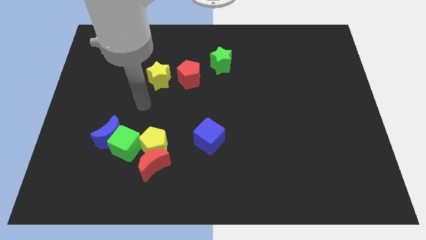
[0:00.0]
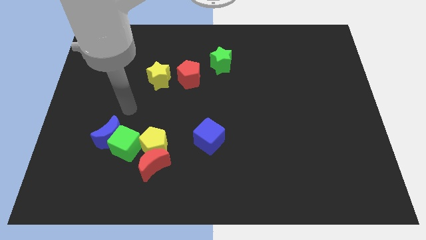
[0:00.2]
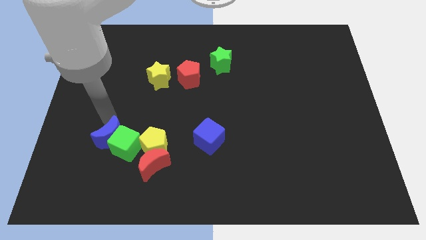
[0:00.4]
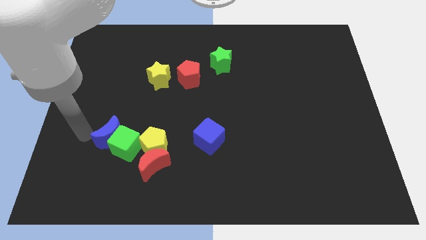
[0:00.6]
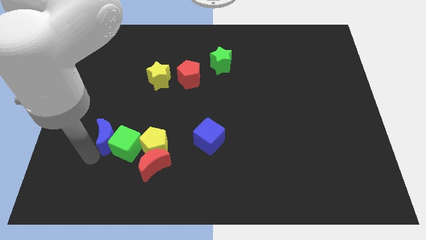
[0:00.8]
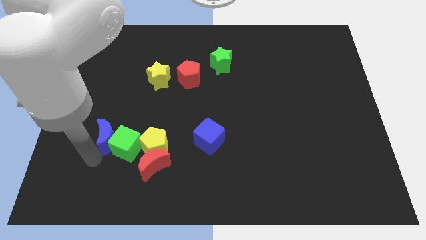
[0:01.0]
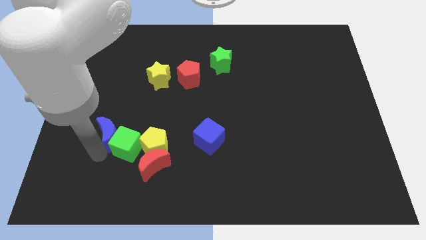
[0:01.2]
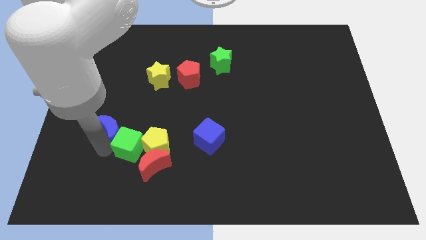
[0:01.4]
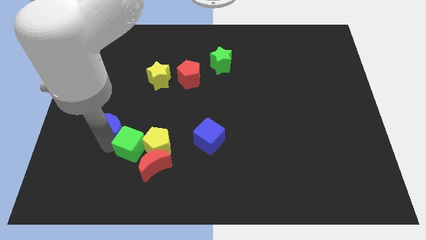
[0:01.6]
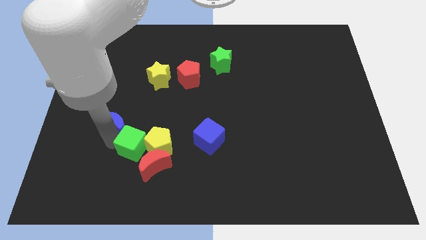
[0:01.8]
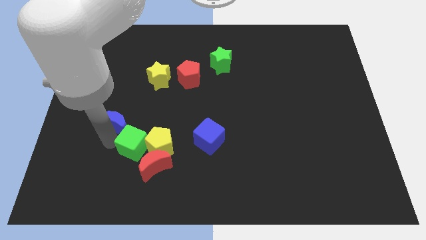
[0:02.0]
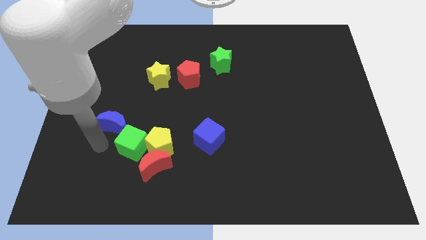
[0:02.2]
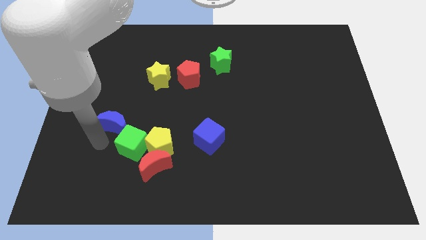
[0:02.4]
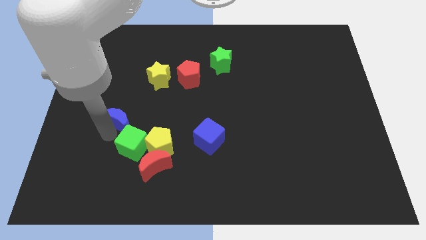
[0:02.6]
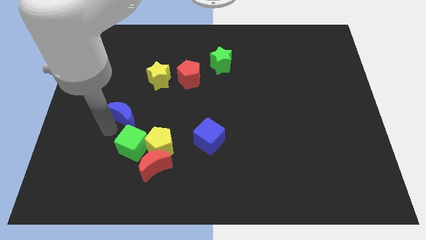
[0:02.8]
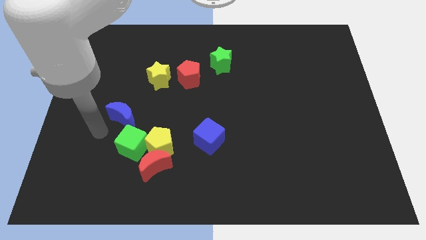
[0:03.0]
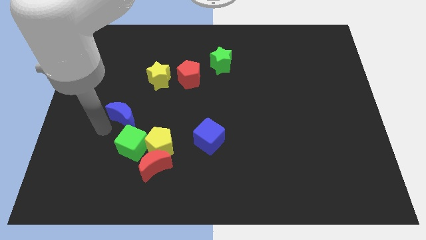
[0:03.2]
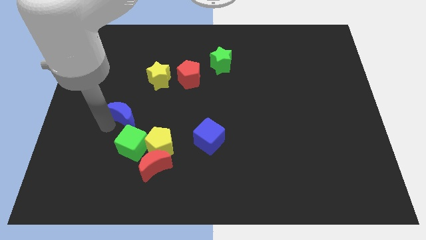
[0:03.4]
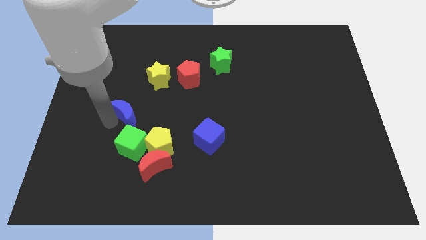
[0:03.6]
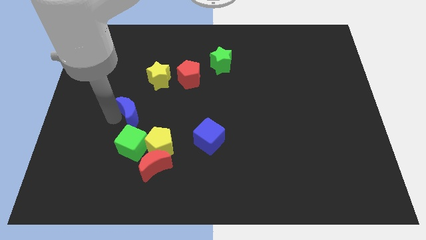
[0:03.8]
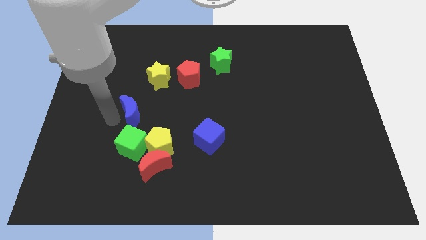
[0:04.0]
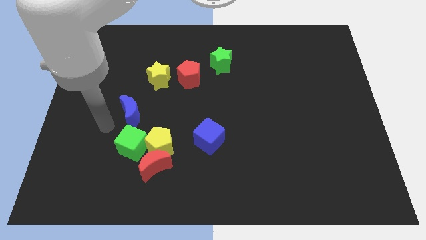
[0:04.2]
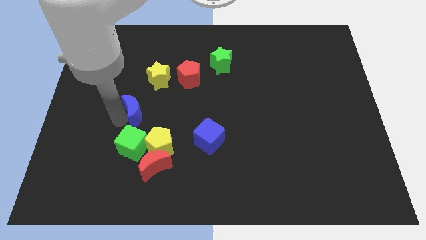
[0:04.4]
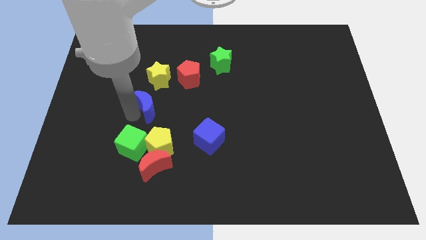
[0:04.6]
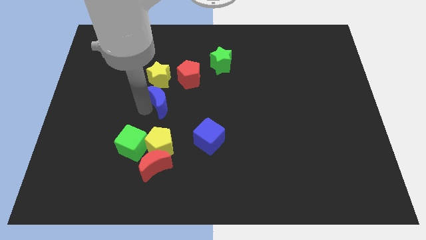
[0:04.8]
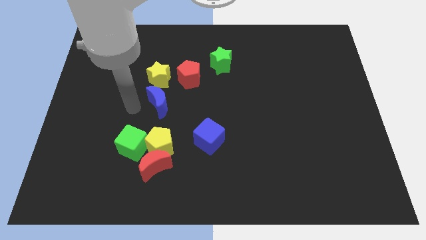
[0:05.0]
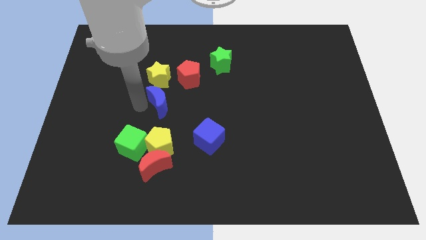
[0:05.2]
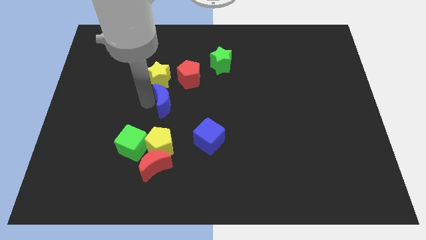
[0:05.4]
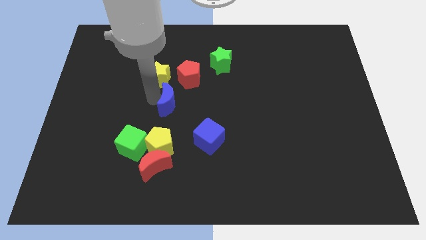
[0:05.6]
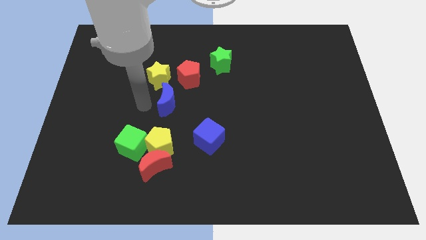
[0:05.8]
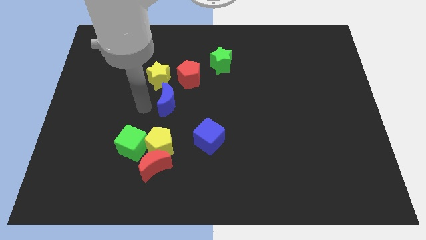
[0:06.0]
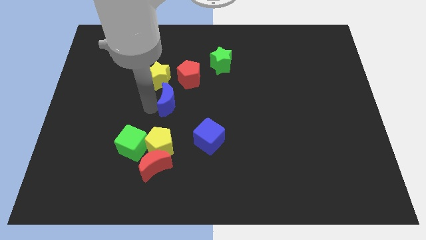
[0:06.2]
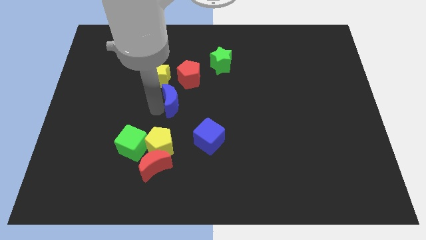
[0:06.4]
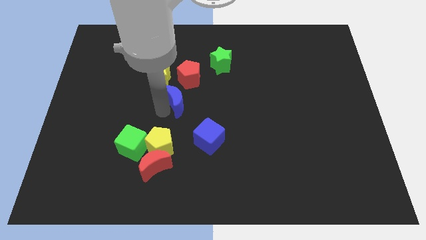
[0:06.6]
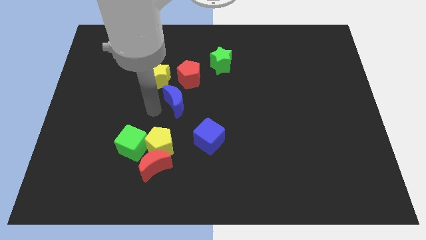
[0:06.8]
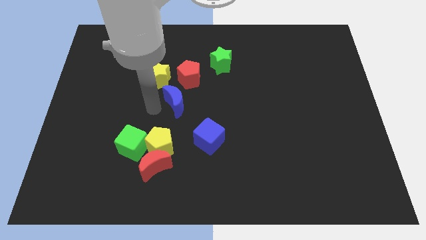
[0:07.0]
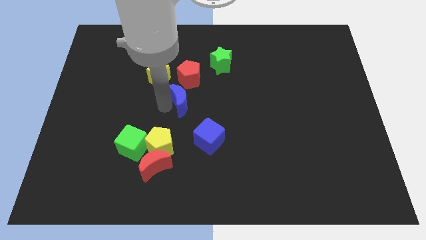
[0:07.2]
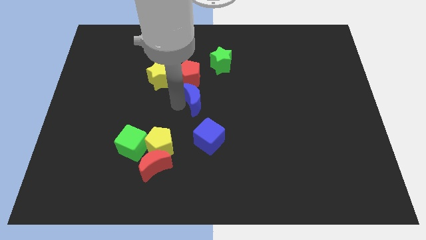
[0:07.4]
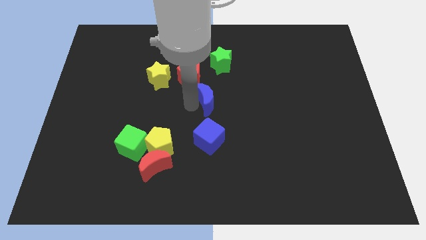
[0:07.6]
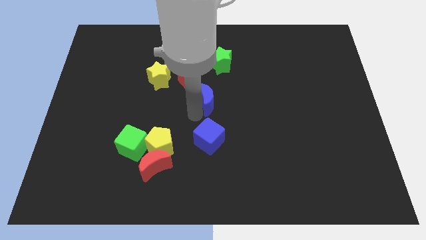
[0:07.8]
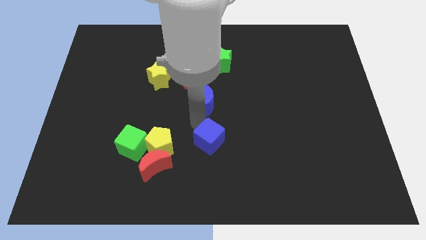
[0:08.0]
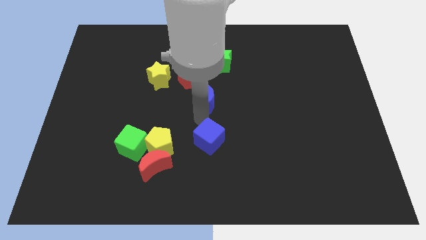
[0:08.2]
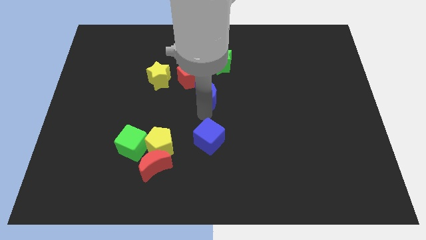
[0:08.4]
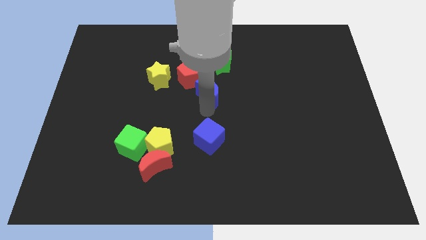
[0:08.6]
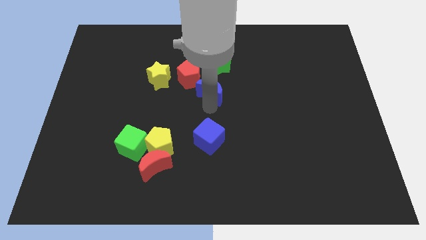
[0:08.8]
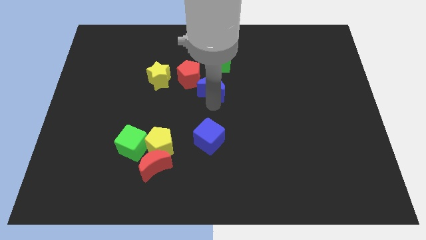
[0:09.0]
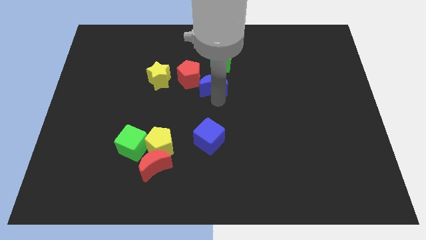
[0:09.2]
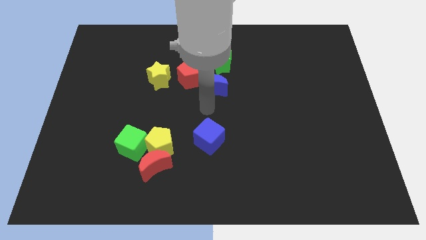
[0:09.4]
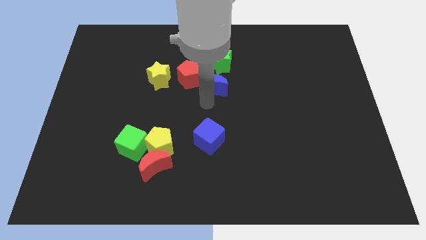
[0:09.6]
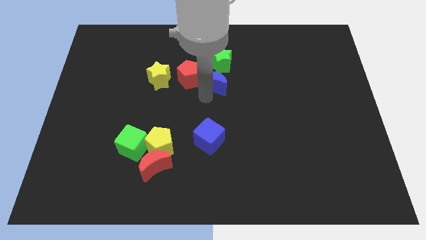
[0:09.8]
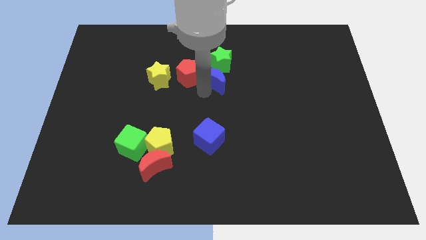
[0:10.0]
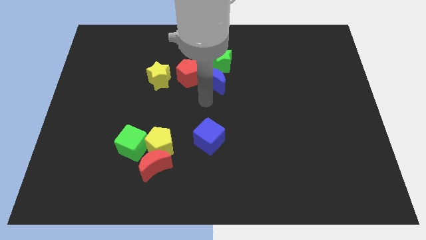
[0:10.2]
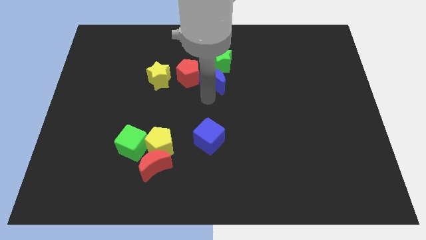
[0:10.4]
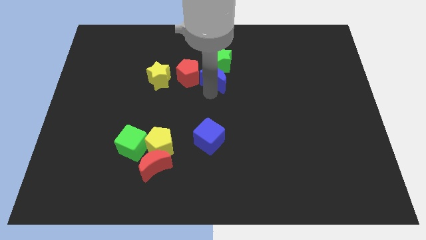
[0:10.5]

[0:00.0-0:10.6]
slide the blue moon close to the green star

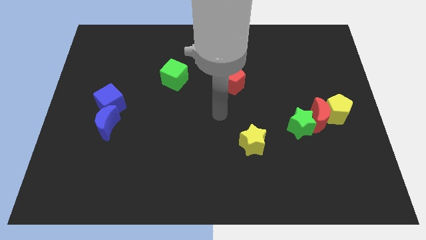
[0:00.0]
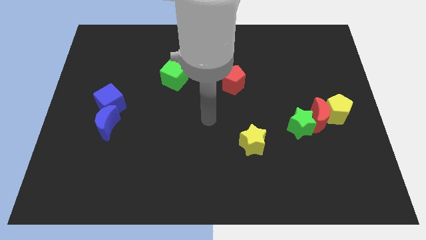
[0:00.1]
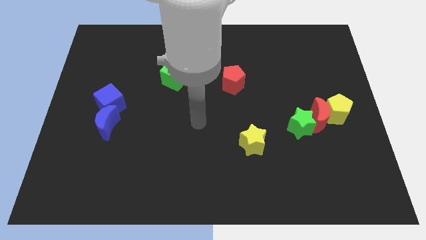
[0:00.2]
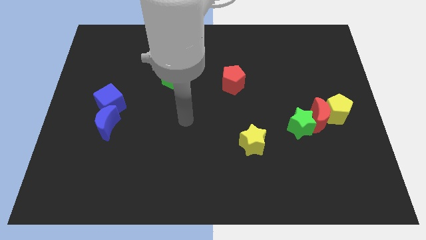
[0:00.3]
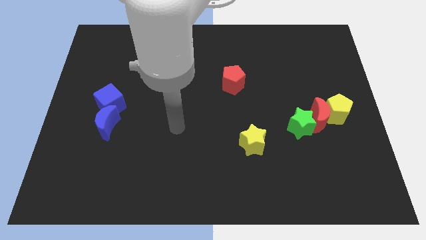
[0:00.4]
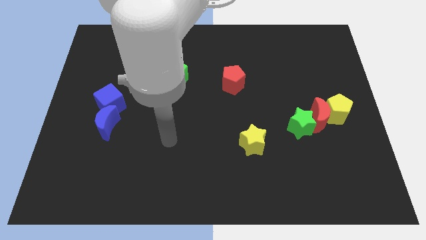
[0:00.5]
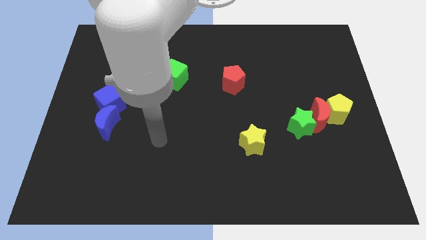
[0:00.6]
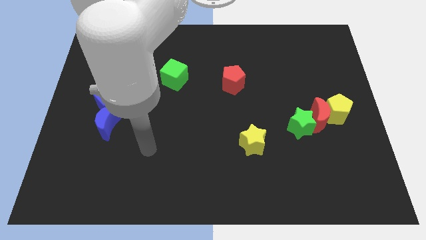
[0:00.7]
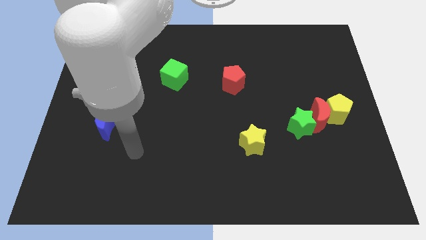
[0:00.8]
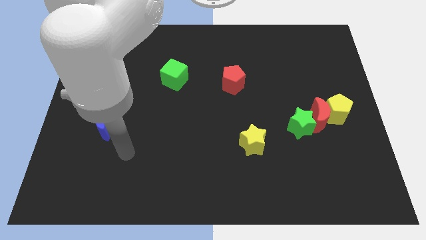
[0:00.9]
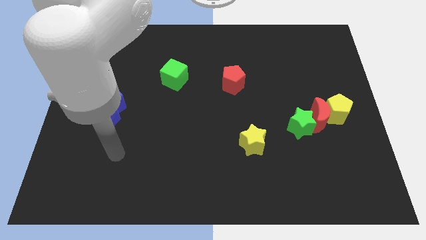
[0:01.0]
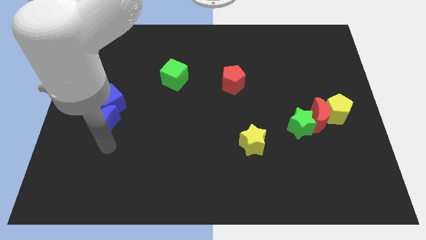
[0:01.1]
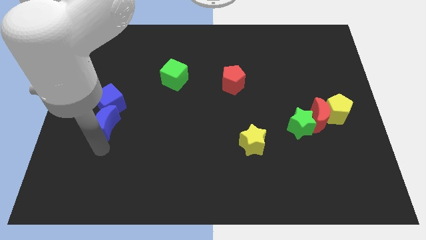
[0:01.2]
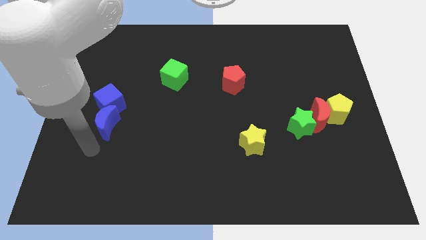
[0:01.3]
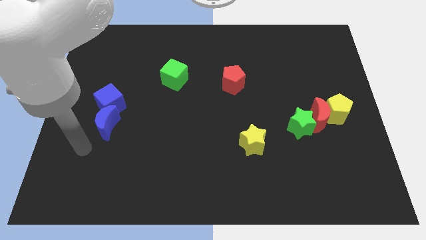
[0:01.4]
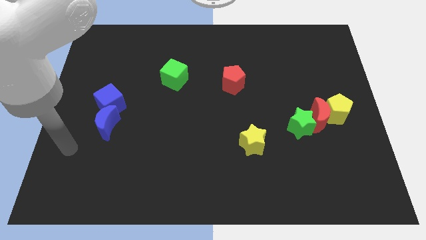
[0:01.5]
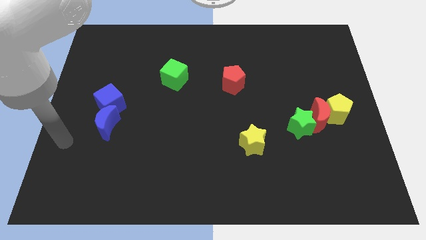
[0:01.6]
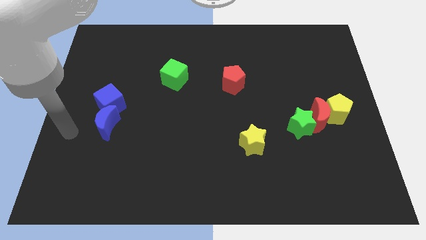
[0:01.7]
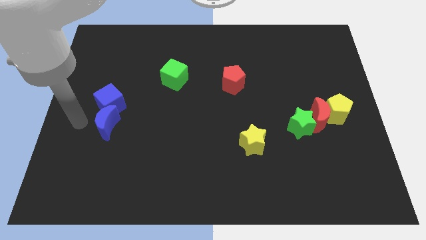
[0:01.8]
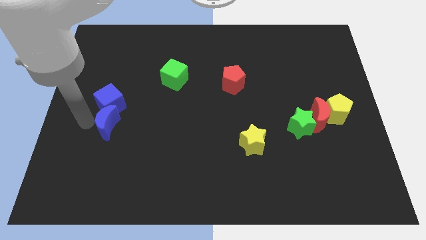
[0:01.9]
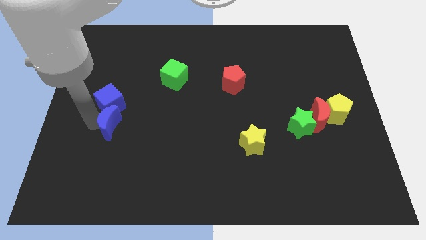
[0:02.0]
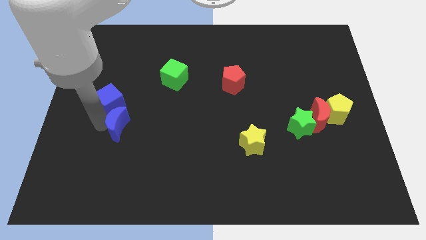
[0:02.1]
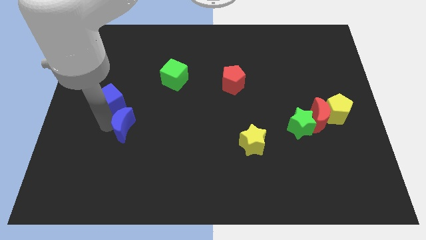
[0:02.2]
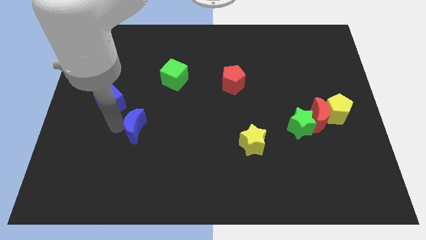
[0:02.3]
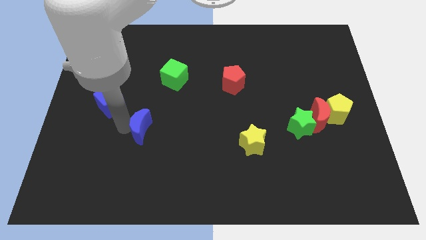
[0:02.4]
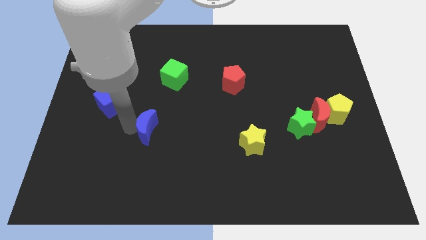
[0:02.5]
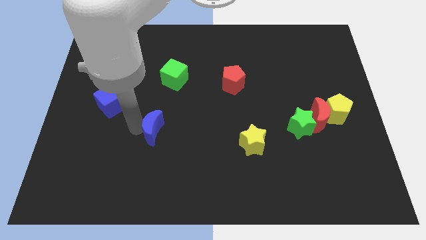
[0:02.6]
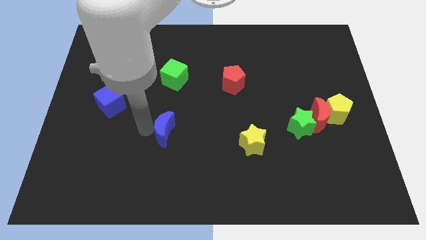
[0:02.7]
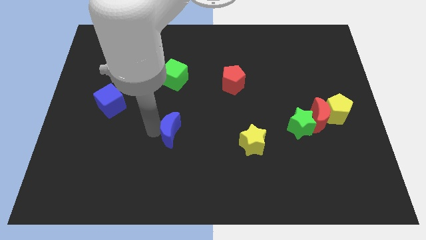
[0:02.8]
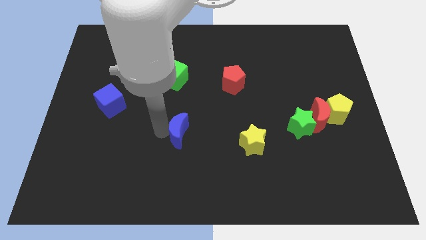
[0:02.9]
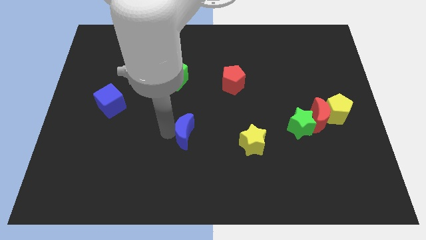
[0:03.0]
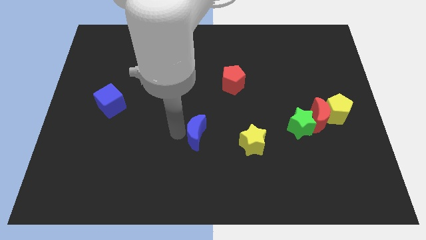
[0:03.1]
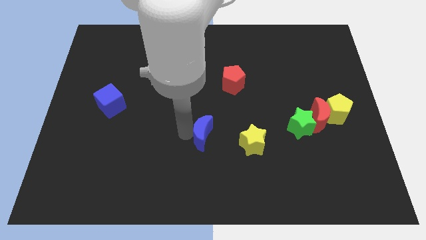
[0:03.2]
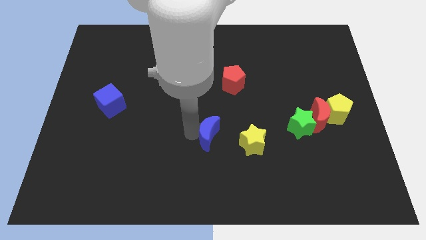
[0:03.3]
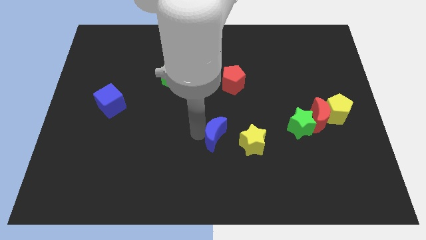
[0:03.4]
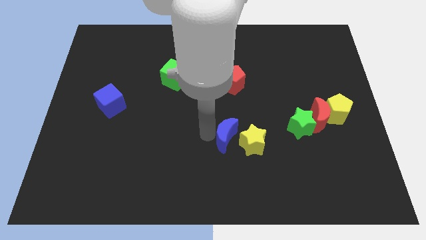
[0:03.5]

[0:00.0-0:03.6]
put the blue moon towards the yellow star
